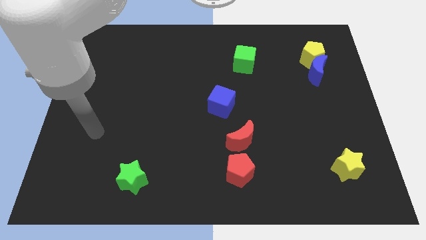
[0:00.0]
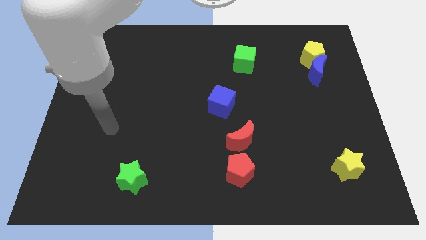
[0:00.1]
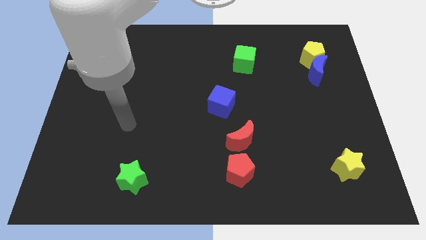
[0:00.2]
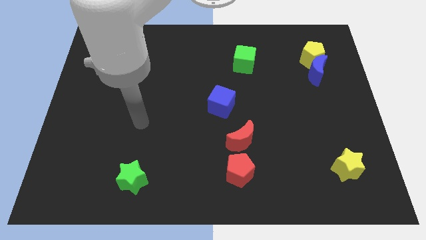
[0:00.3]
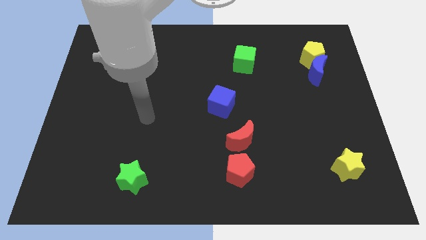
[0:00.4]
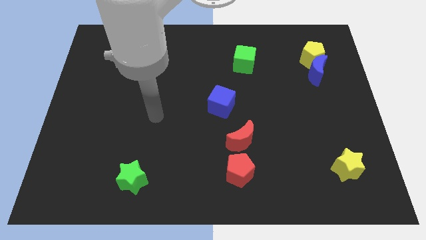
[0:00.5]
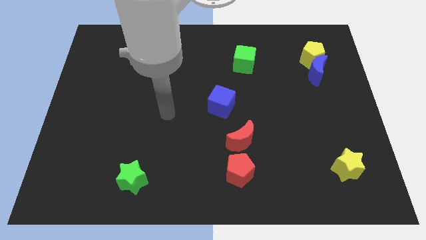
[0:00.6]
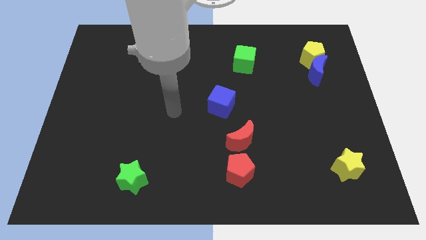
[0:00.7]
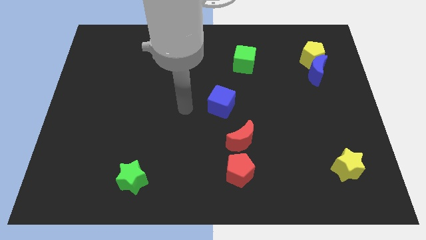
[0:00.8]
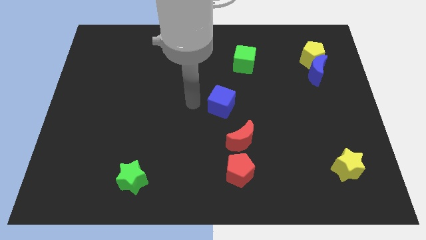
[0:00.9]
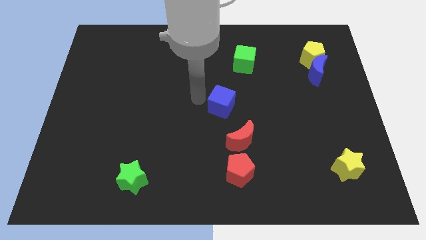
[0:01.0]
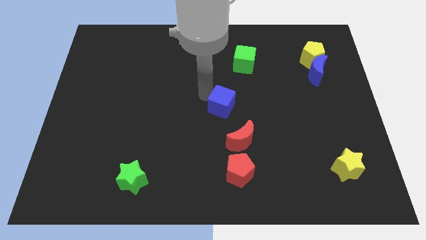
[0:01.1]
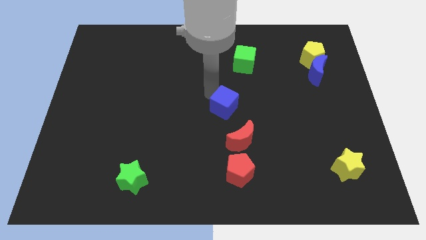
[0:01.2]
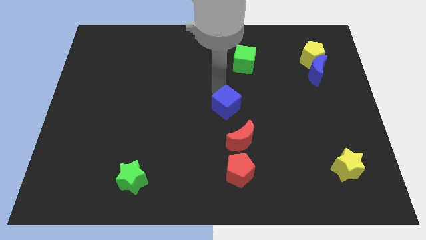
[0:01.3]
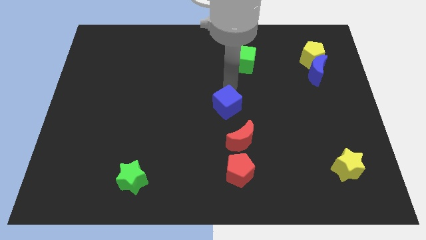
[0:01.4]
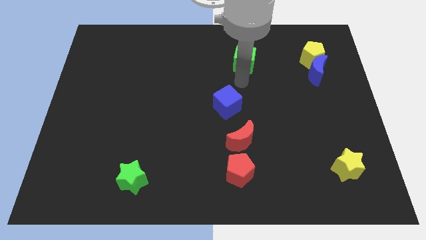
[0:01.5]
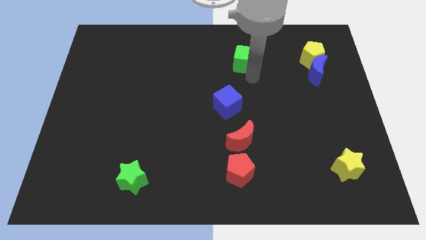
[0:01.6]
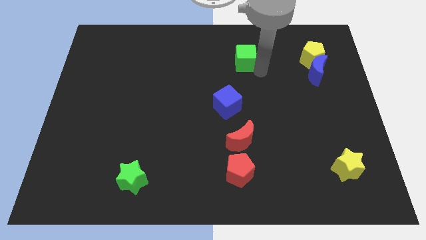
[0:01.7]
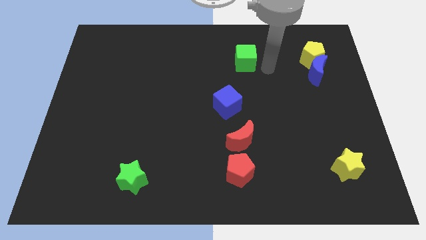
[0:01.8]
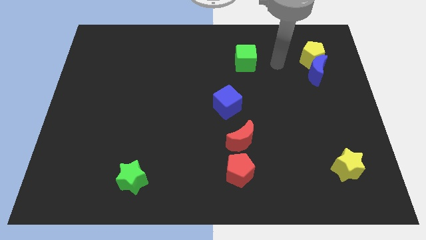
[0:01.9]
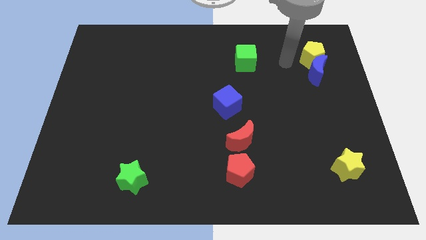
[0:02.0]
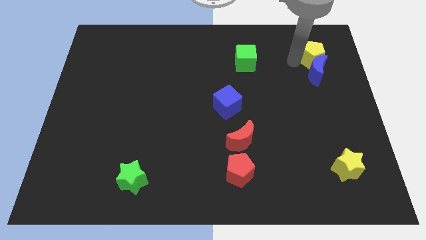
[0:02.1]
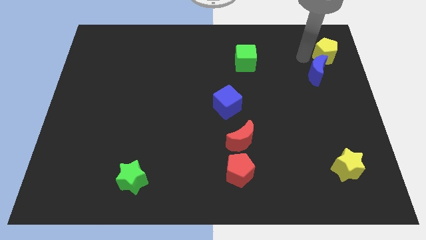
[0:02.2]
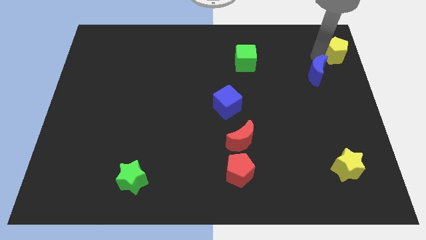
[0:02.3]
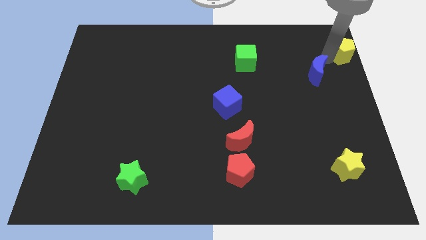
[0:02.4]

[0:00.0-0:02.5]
separate the blue moon from the yellow pentagon

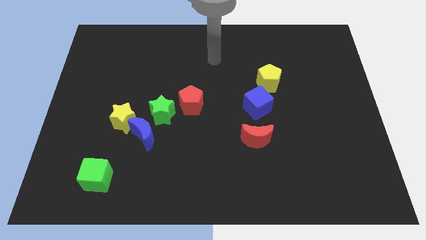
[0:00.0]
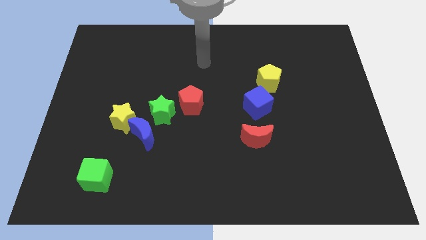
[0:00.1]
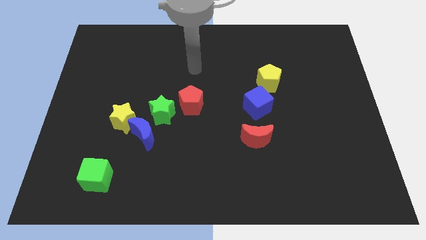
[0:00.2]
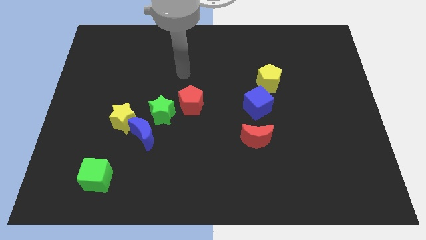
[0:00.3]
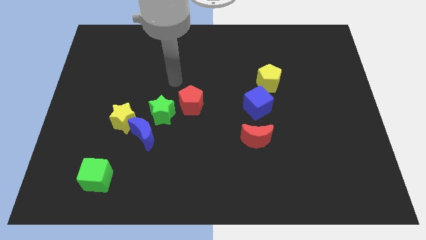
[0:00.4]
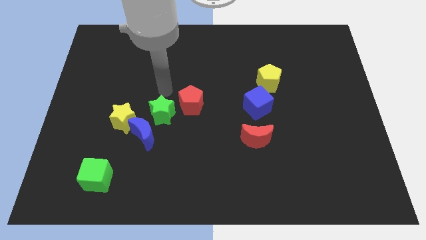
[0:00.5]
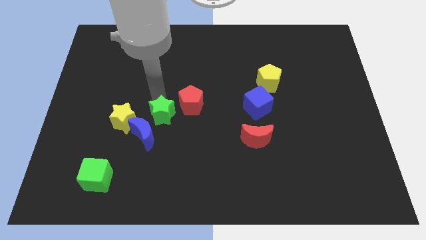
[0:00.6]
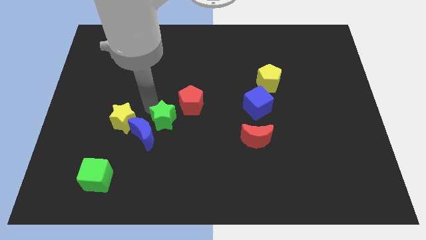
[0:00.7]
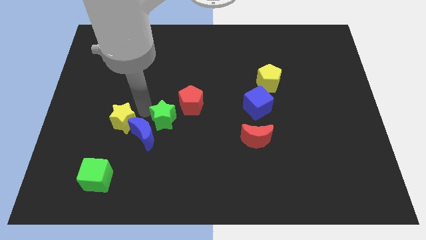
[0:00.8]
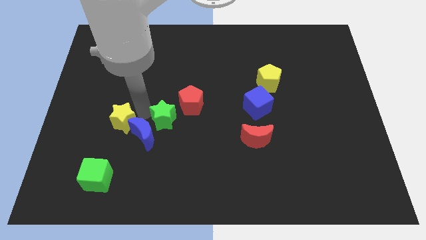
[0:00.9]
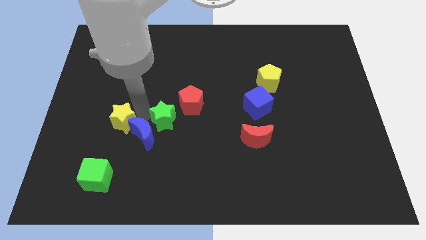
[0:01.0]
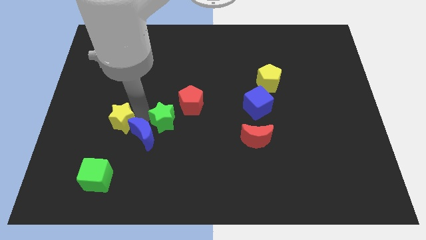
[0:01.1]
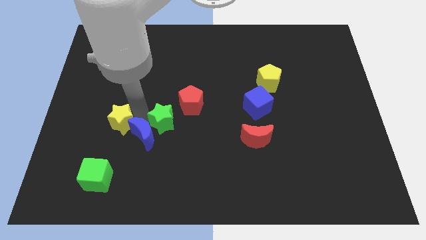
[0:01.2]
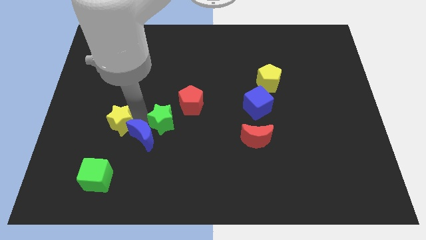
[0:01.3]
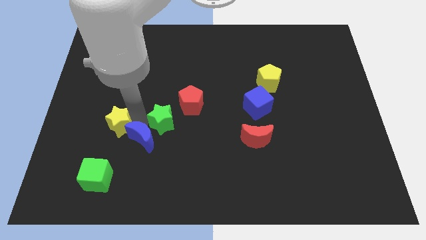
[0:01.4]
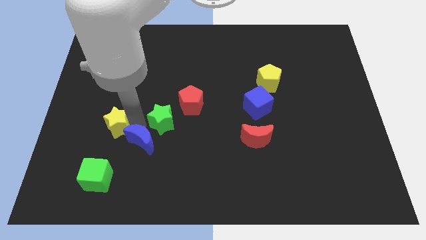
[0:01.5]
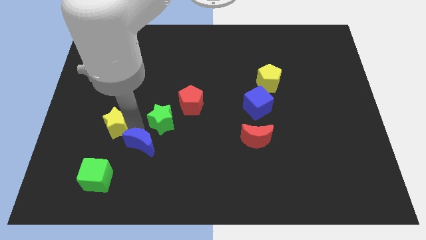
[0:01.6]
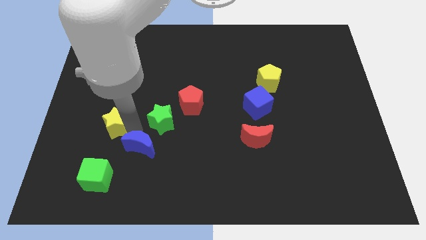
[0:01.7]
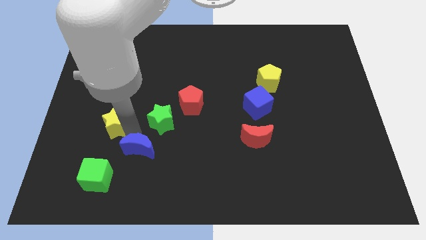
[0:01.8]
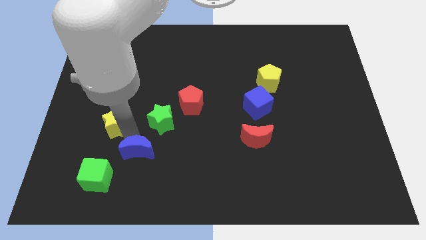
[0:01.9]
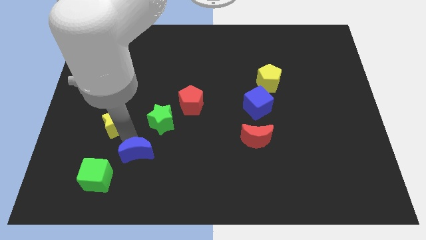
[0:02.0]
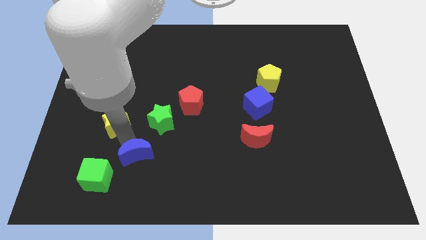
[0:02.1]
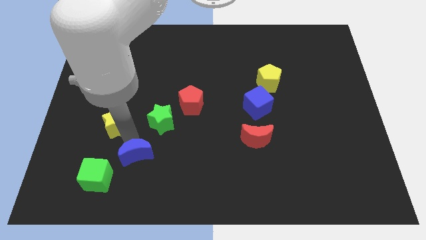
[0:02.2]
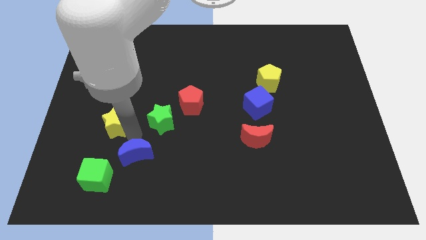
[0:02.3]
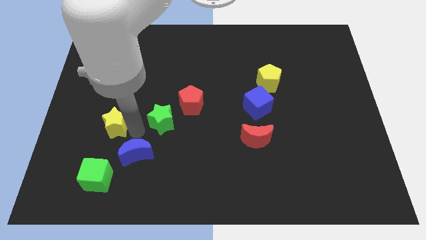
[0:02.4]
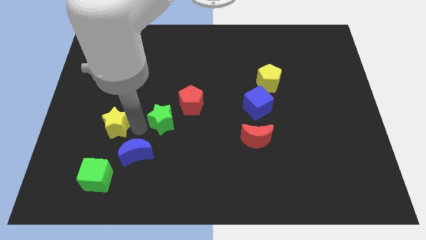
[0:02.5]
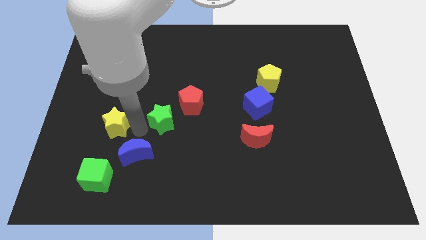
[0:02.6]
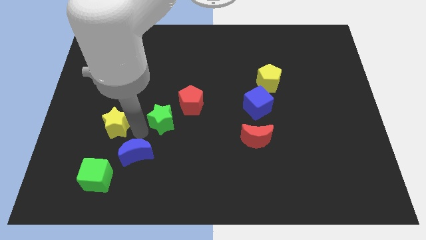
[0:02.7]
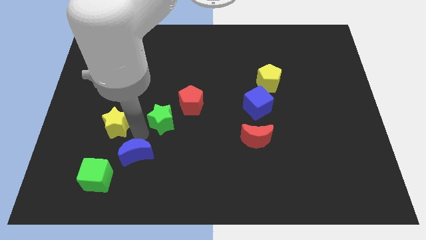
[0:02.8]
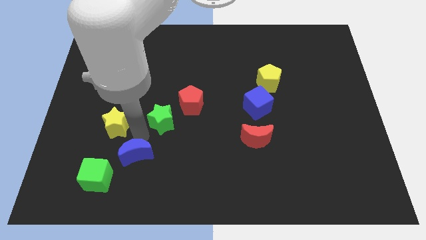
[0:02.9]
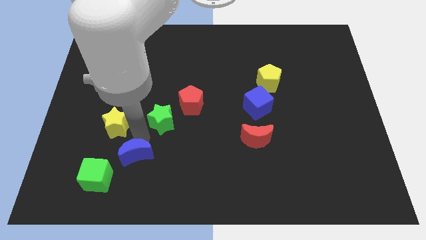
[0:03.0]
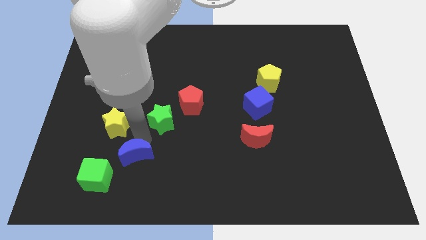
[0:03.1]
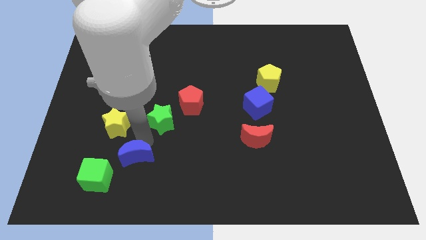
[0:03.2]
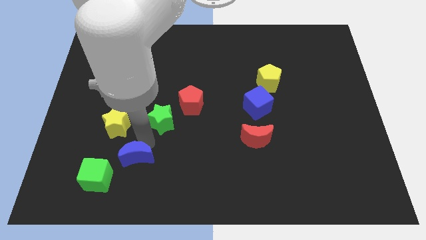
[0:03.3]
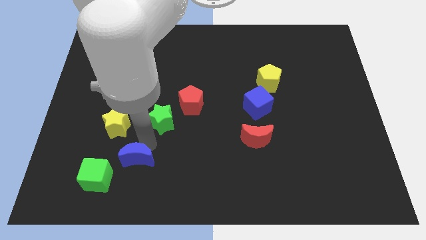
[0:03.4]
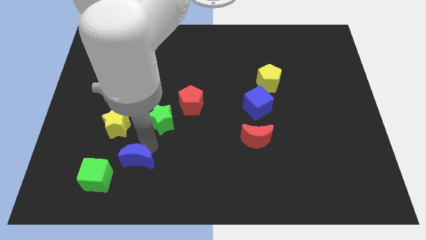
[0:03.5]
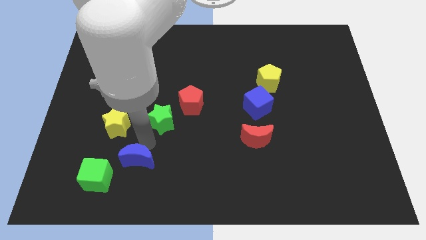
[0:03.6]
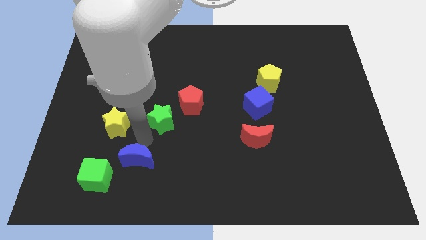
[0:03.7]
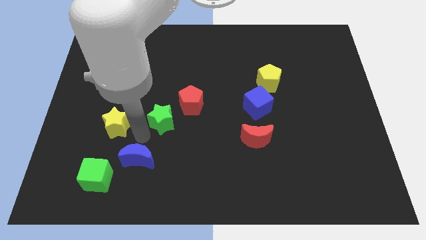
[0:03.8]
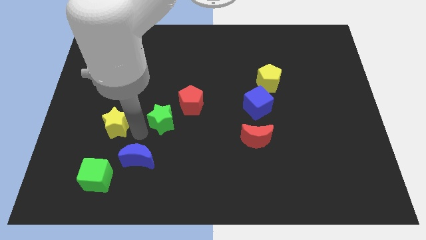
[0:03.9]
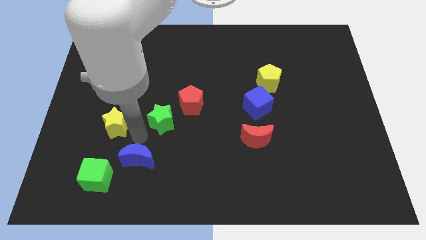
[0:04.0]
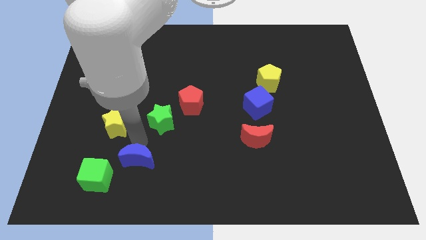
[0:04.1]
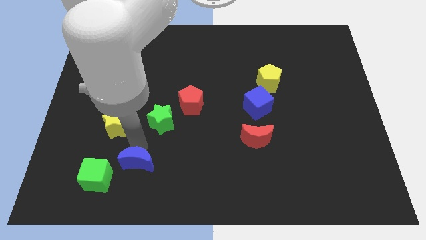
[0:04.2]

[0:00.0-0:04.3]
move the blue moon away from the yellow star and green star

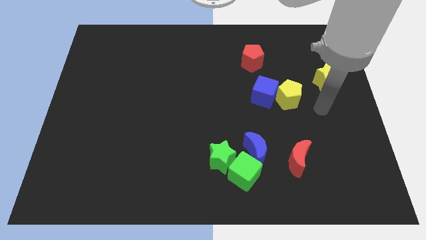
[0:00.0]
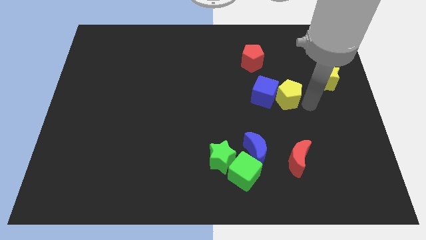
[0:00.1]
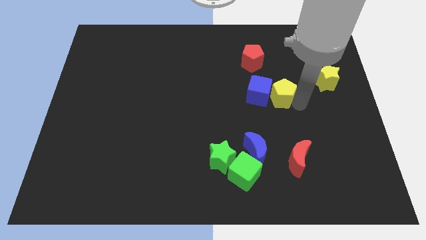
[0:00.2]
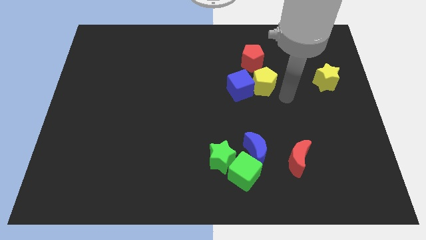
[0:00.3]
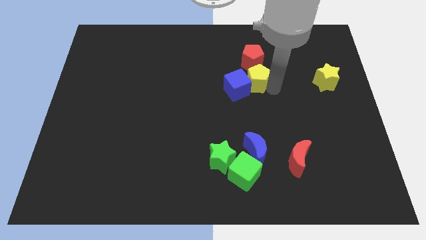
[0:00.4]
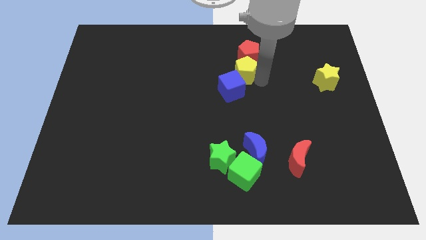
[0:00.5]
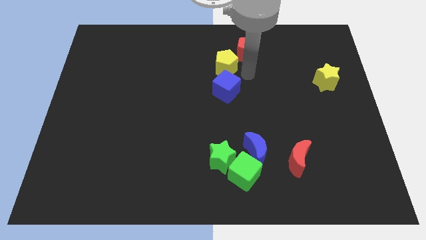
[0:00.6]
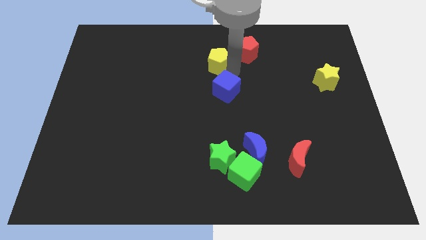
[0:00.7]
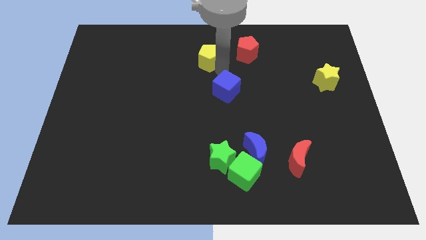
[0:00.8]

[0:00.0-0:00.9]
pull the blue cube apart from the yellow pentagon

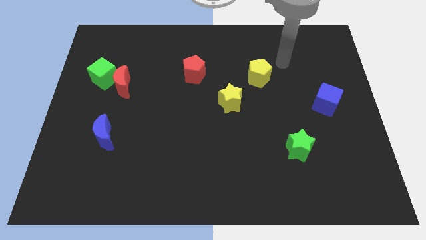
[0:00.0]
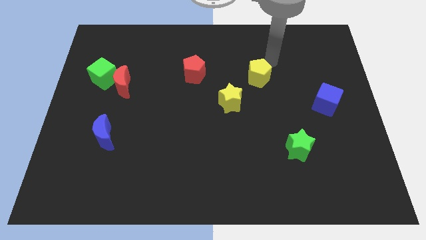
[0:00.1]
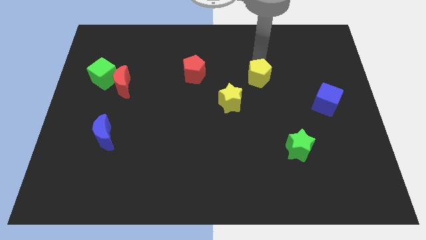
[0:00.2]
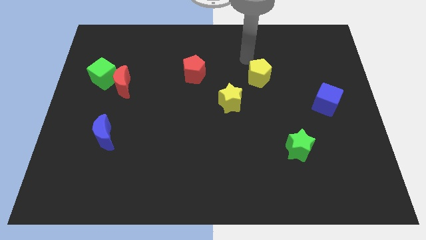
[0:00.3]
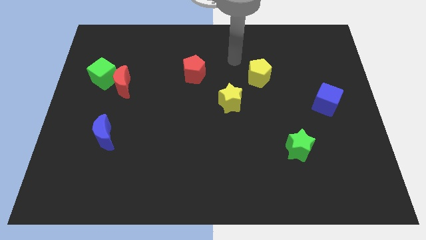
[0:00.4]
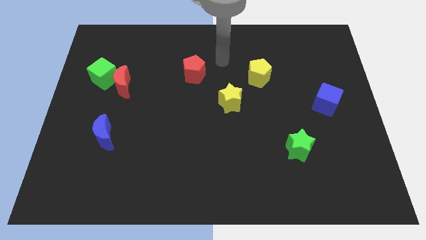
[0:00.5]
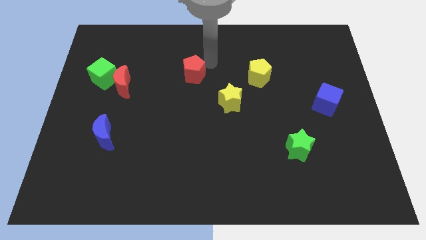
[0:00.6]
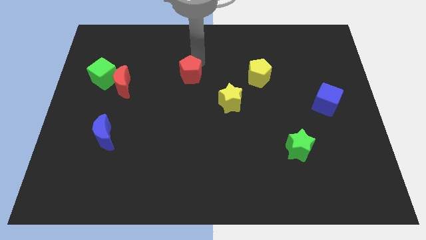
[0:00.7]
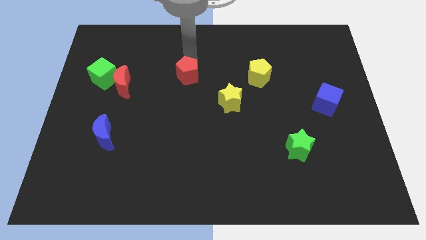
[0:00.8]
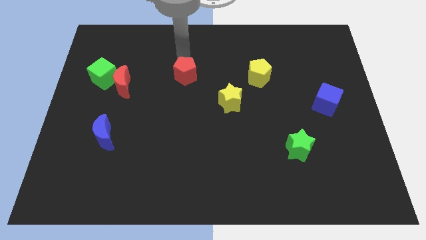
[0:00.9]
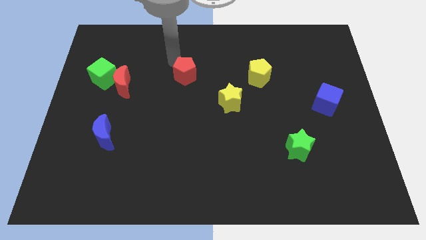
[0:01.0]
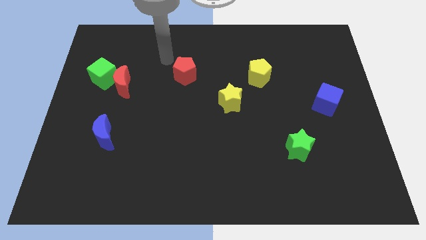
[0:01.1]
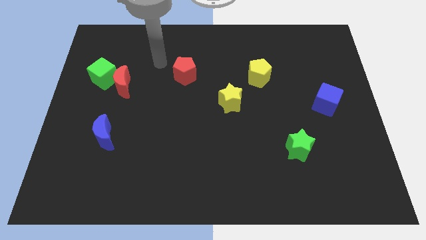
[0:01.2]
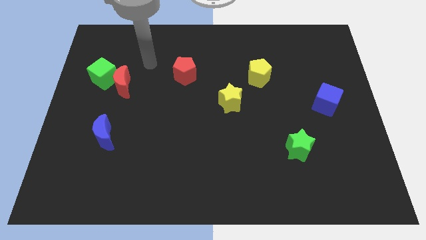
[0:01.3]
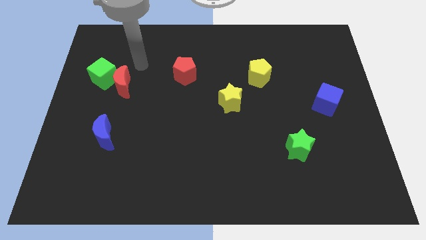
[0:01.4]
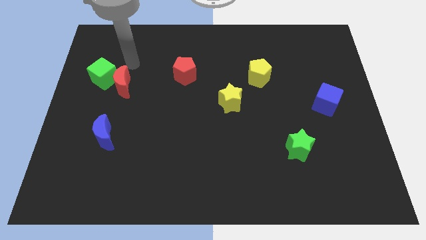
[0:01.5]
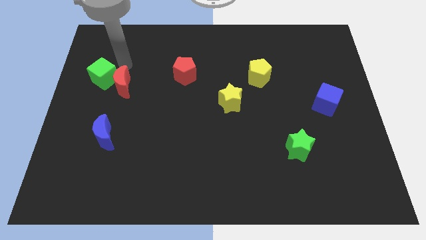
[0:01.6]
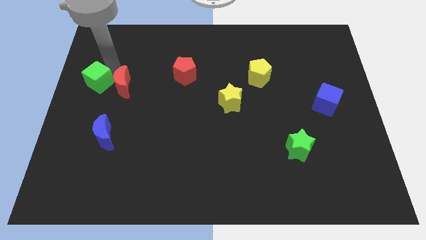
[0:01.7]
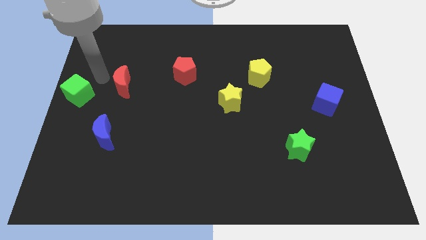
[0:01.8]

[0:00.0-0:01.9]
pull the red moon apart from the green cube
